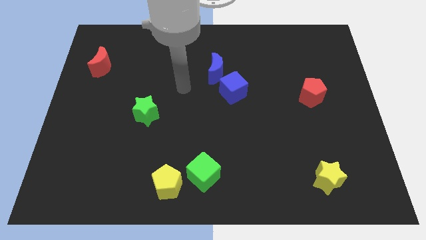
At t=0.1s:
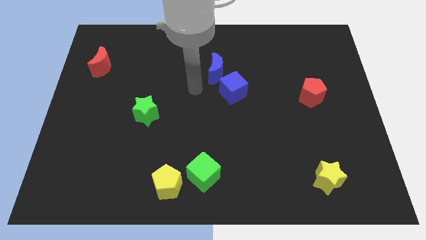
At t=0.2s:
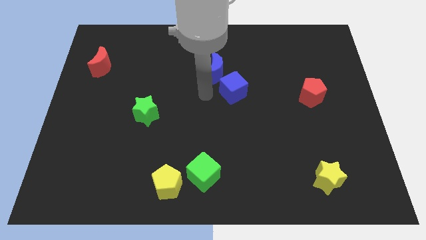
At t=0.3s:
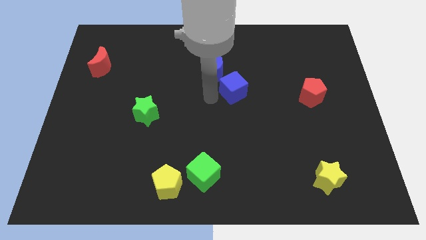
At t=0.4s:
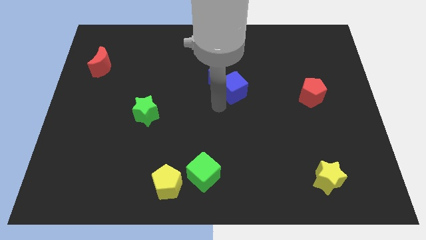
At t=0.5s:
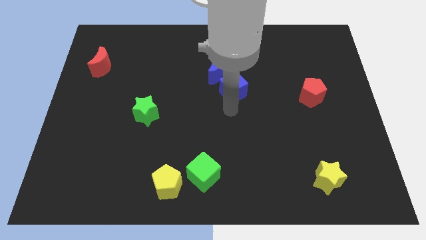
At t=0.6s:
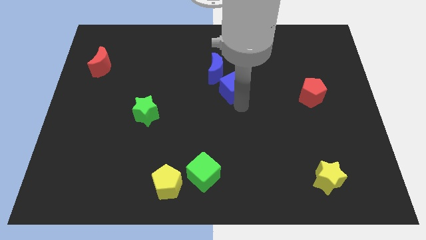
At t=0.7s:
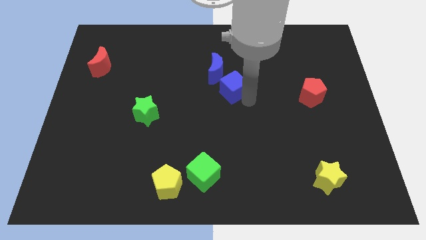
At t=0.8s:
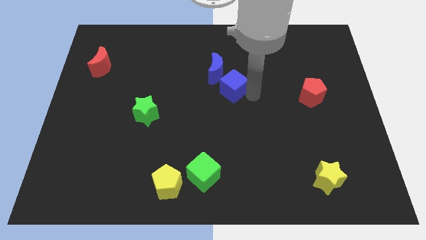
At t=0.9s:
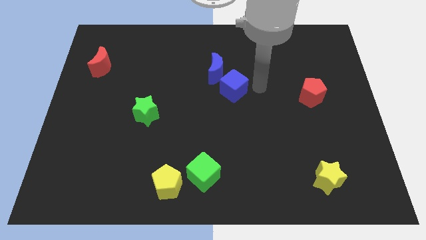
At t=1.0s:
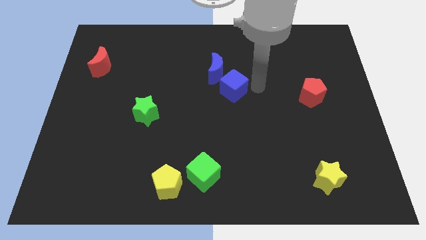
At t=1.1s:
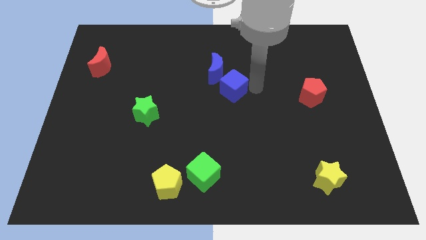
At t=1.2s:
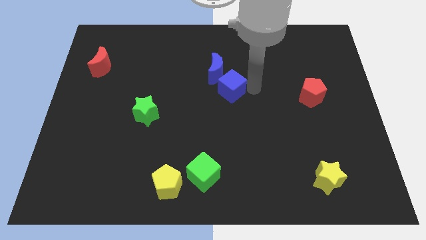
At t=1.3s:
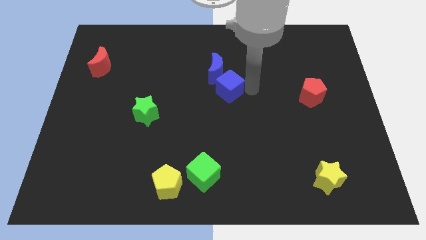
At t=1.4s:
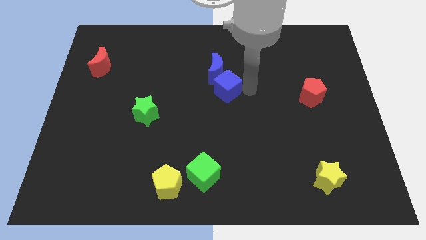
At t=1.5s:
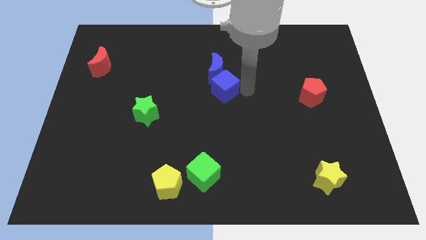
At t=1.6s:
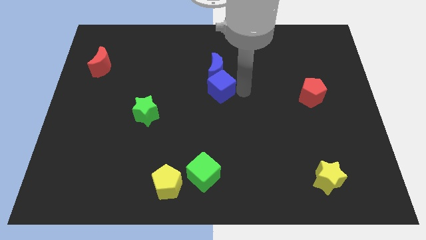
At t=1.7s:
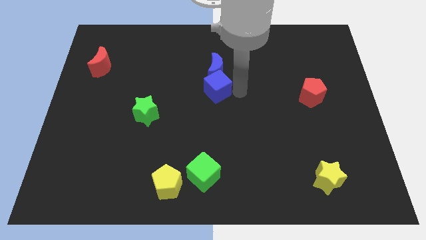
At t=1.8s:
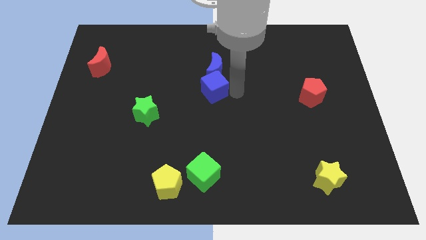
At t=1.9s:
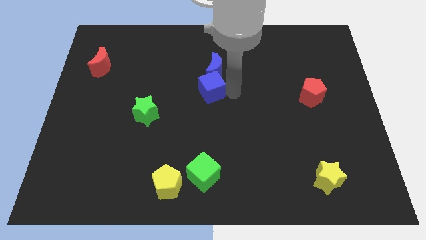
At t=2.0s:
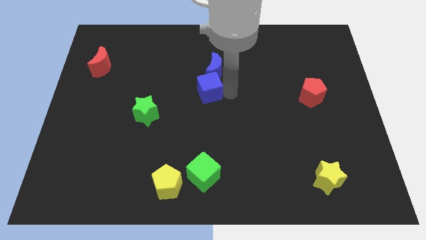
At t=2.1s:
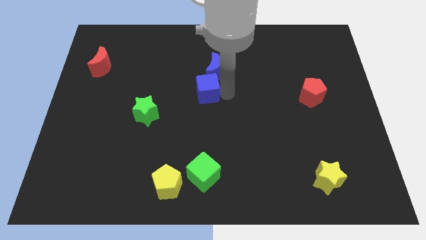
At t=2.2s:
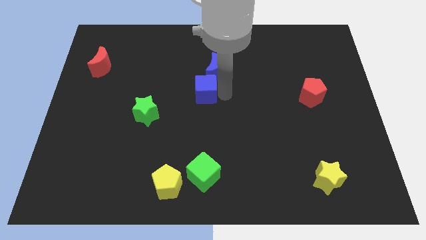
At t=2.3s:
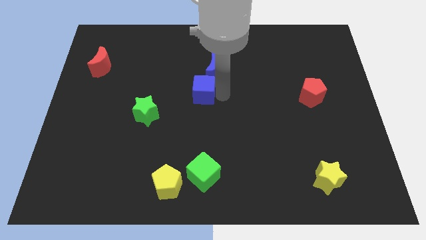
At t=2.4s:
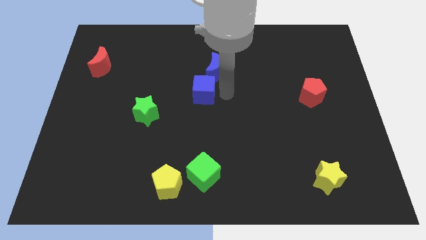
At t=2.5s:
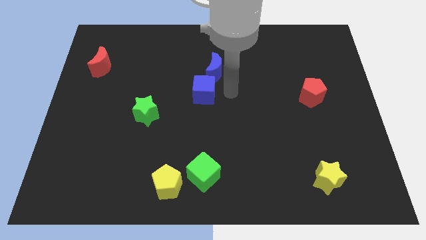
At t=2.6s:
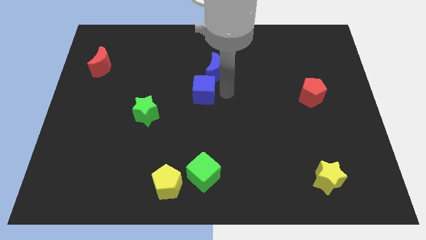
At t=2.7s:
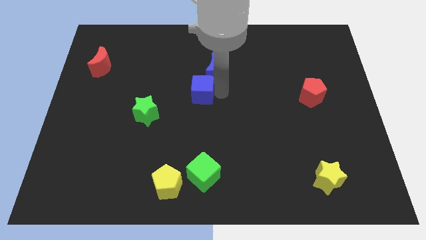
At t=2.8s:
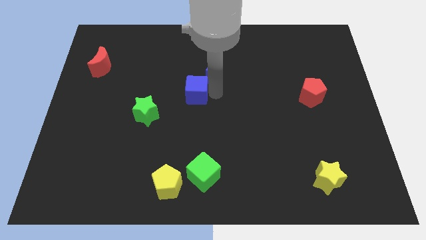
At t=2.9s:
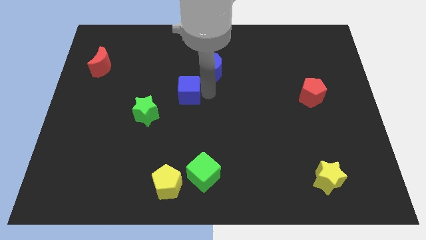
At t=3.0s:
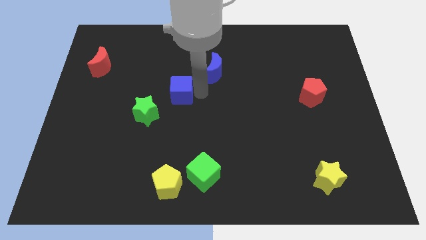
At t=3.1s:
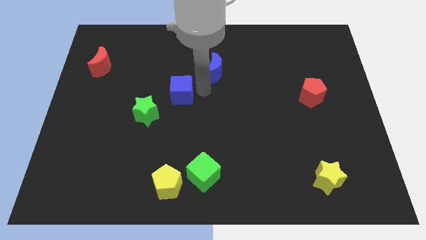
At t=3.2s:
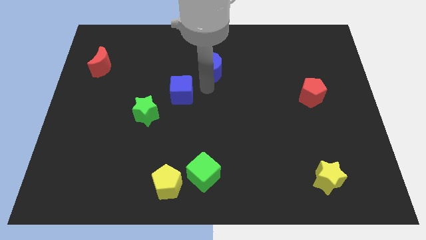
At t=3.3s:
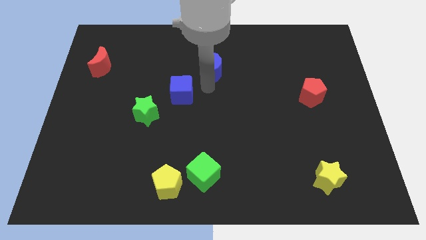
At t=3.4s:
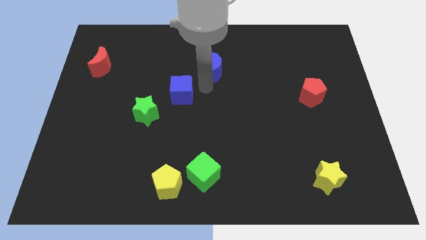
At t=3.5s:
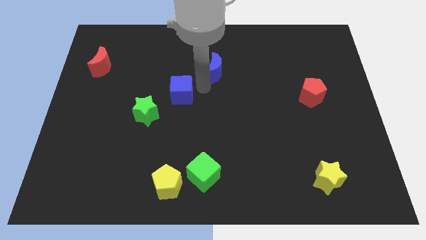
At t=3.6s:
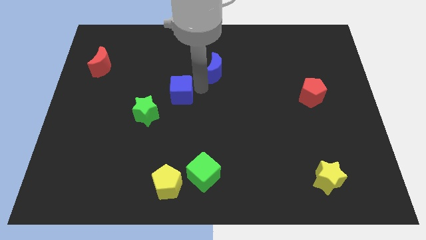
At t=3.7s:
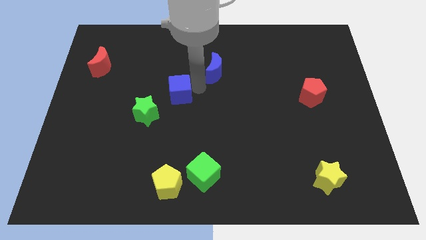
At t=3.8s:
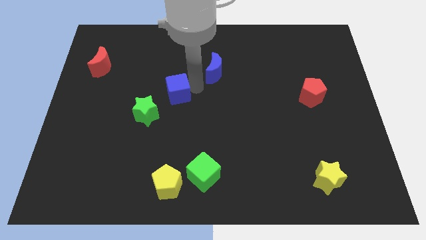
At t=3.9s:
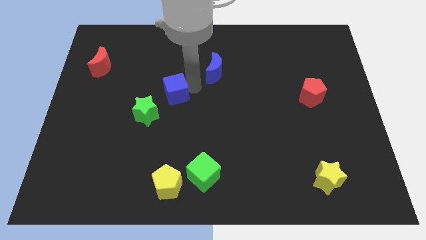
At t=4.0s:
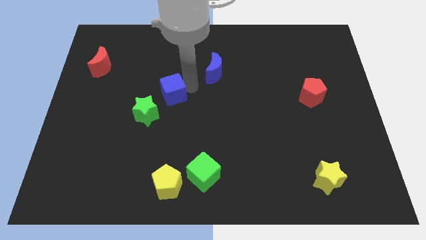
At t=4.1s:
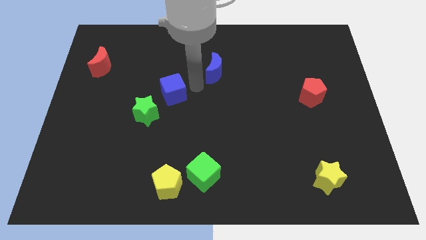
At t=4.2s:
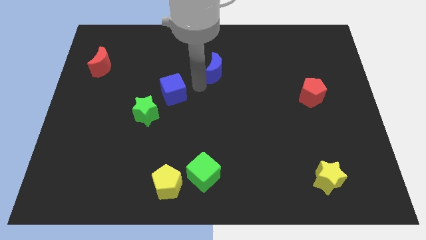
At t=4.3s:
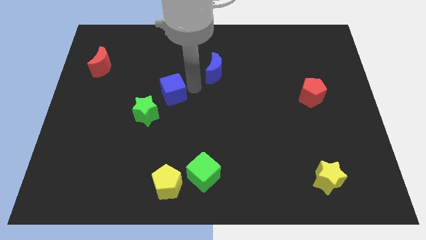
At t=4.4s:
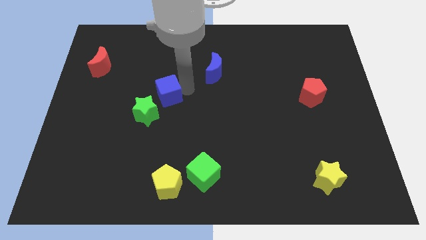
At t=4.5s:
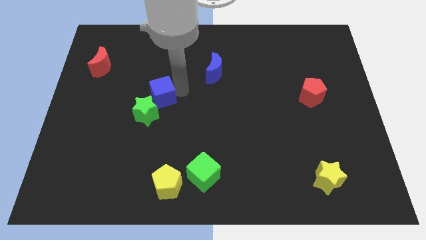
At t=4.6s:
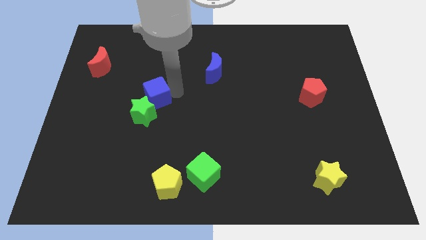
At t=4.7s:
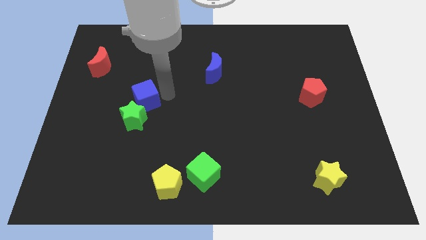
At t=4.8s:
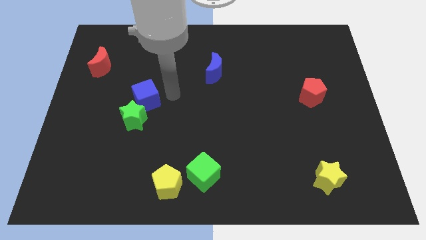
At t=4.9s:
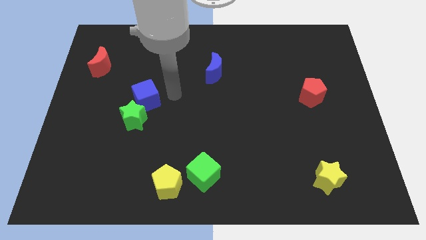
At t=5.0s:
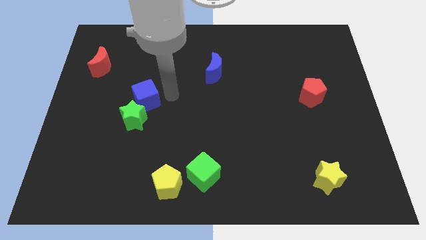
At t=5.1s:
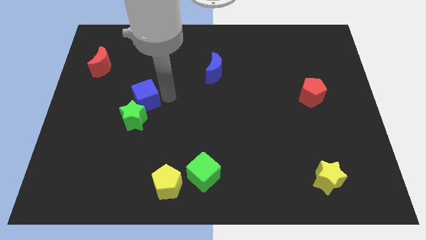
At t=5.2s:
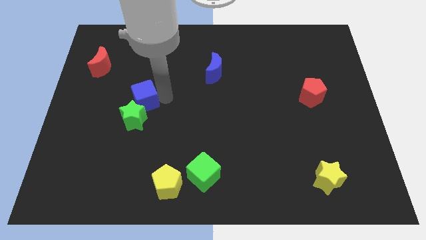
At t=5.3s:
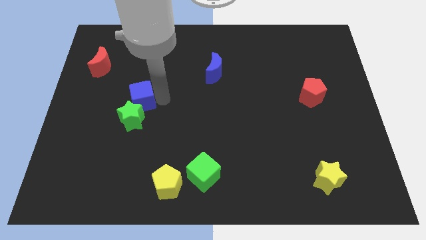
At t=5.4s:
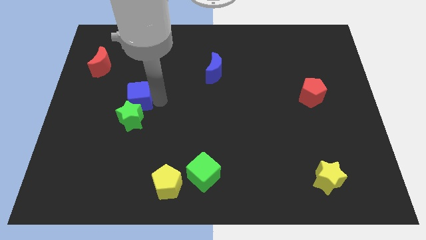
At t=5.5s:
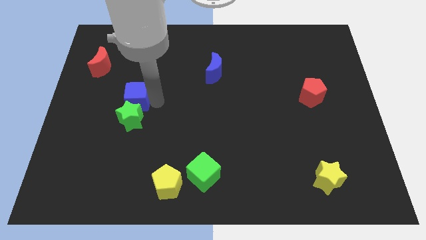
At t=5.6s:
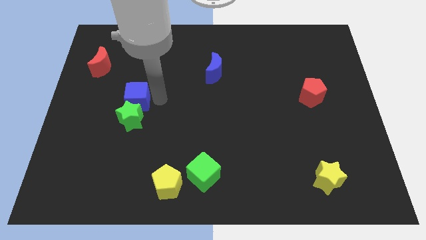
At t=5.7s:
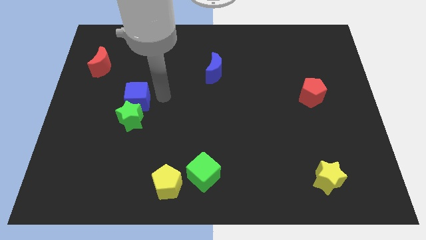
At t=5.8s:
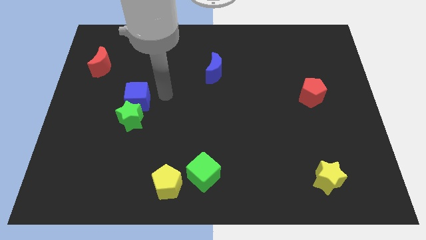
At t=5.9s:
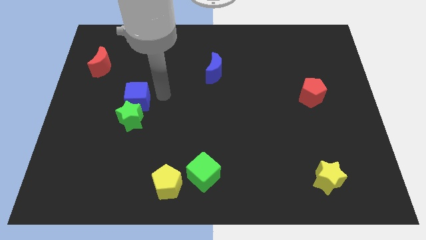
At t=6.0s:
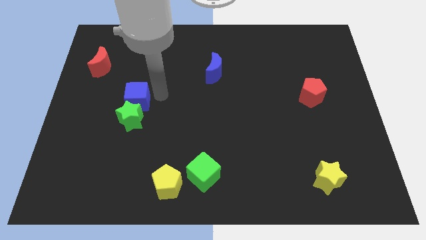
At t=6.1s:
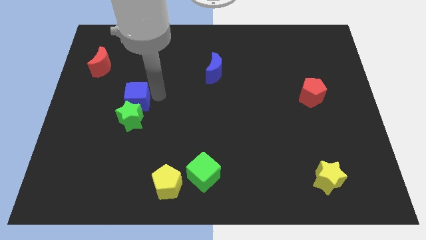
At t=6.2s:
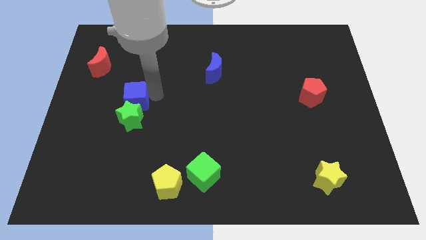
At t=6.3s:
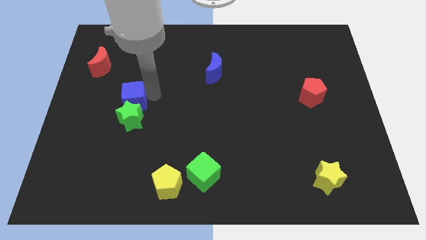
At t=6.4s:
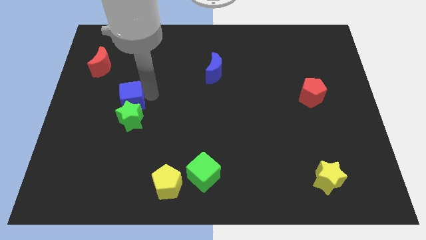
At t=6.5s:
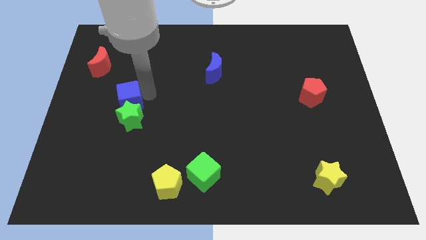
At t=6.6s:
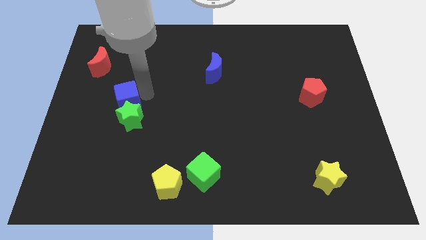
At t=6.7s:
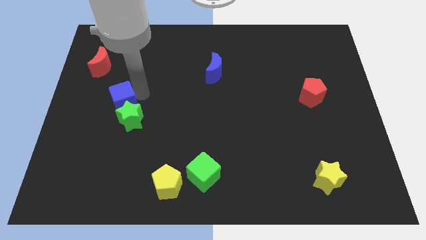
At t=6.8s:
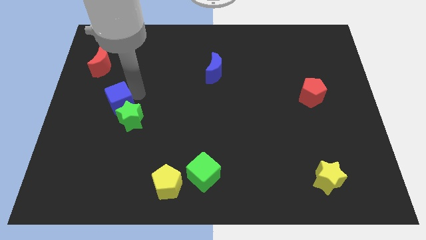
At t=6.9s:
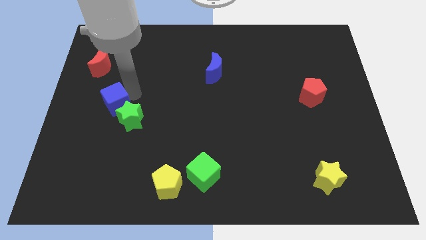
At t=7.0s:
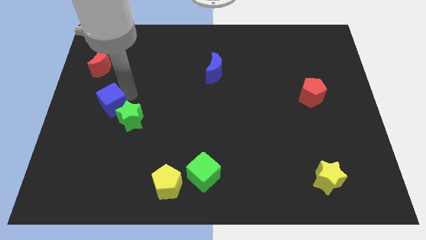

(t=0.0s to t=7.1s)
put the blue cube just left of the green star

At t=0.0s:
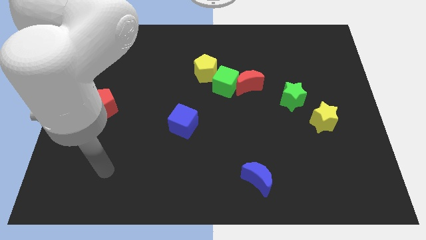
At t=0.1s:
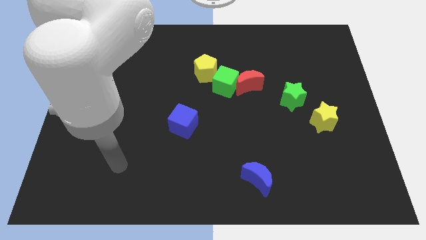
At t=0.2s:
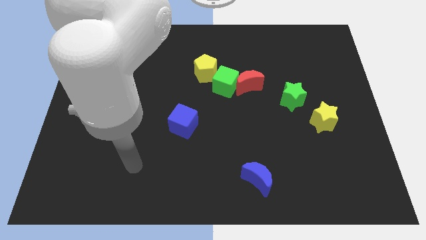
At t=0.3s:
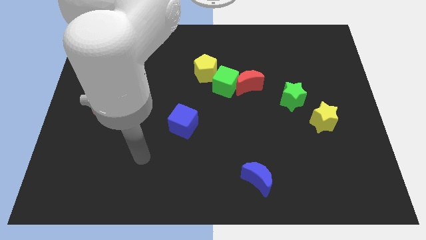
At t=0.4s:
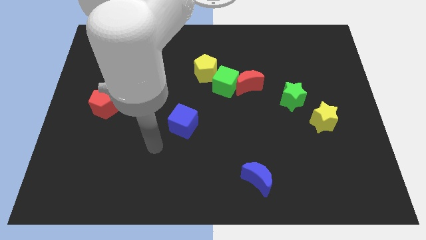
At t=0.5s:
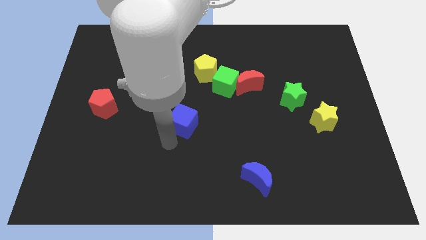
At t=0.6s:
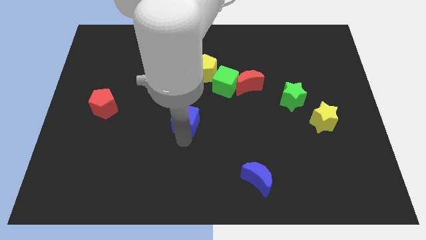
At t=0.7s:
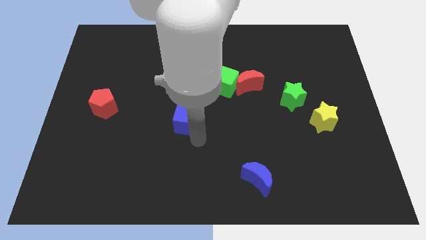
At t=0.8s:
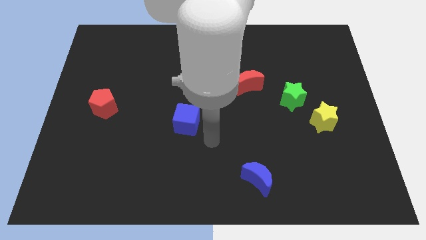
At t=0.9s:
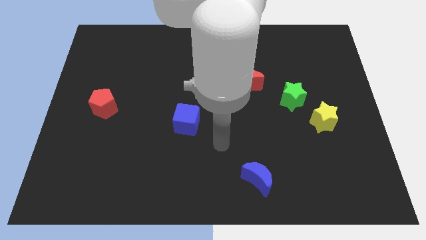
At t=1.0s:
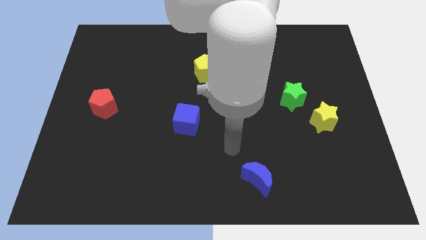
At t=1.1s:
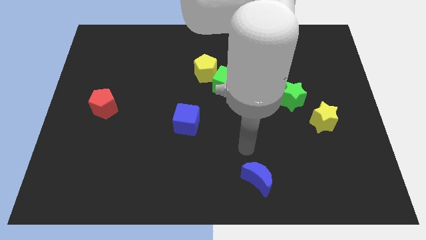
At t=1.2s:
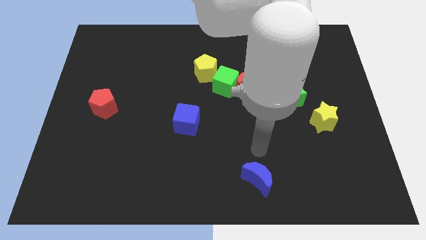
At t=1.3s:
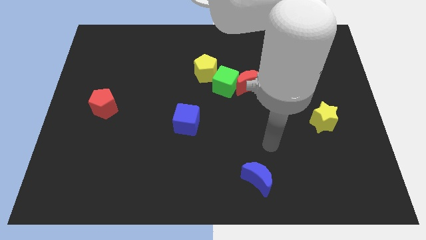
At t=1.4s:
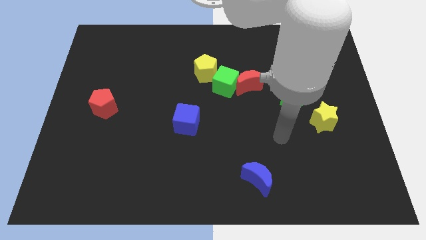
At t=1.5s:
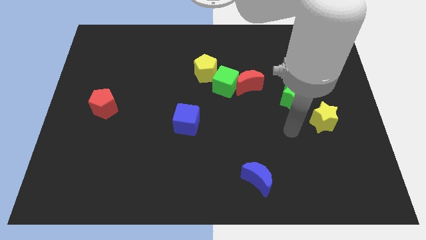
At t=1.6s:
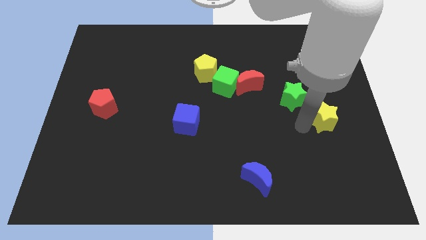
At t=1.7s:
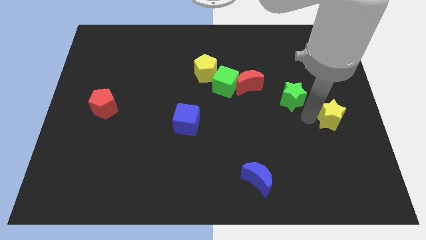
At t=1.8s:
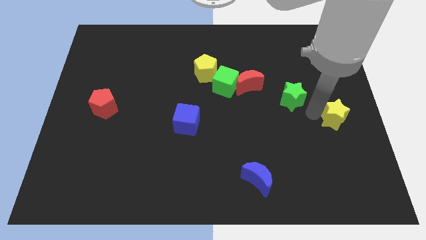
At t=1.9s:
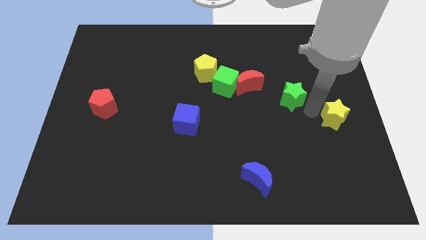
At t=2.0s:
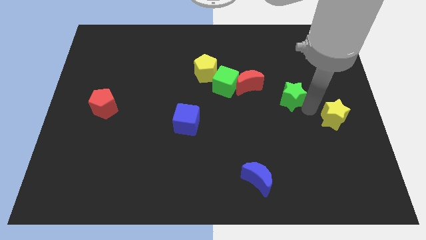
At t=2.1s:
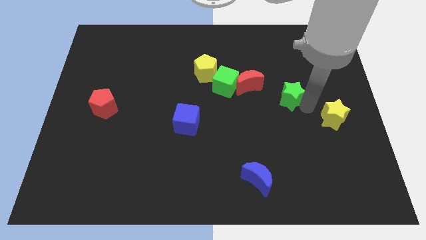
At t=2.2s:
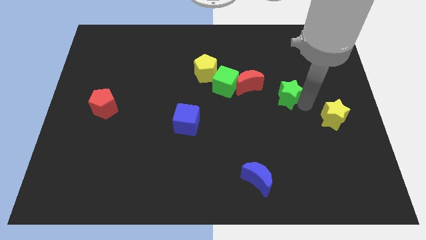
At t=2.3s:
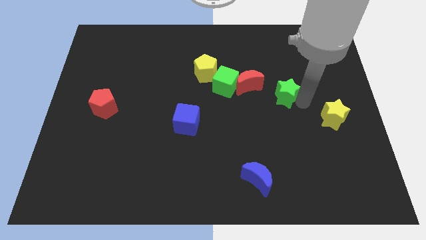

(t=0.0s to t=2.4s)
move the green star to the right of the green cube
